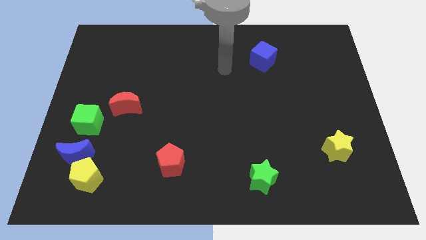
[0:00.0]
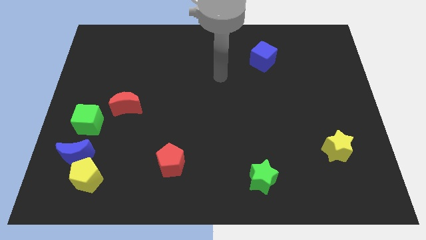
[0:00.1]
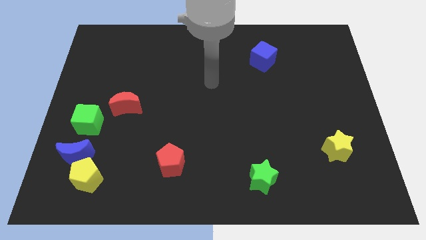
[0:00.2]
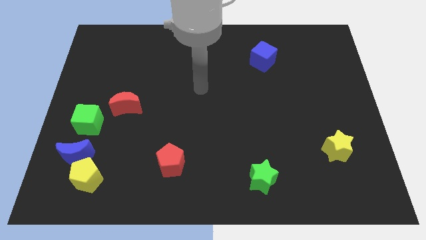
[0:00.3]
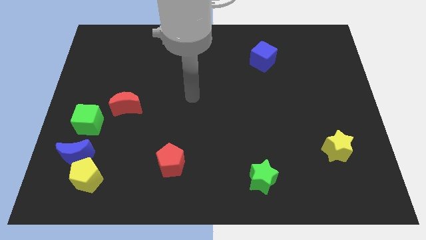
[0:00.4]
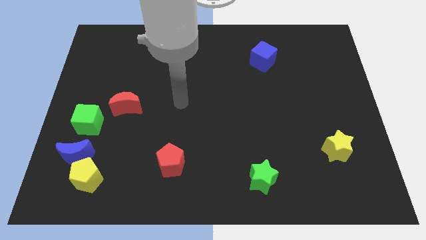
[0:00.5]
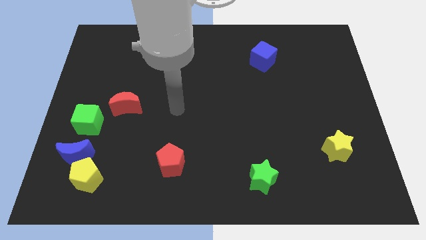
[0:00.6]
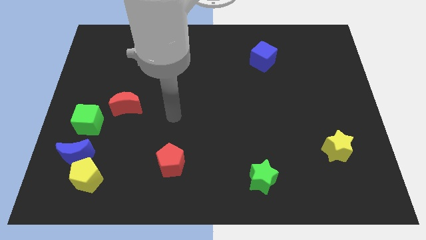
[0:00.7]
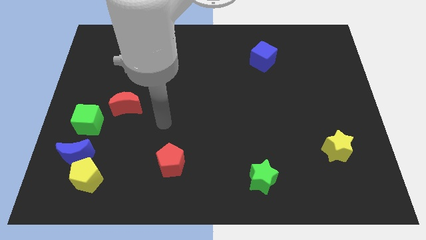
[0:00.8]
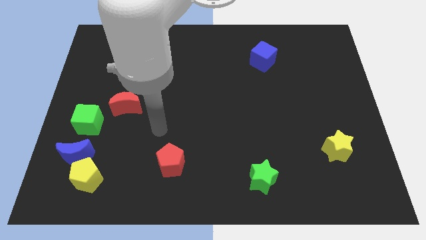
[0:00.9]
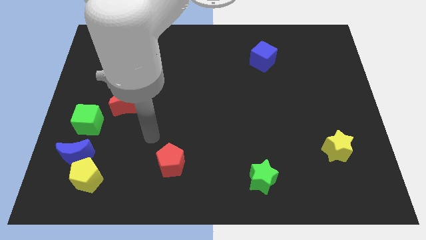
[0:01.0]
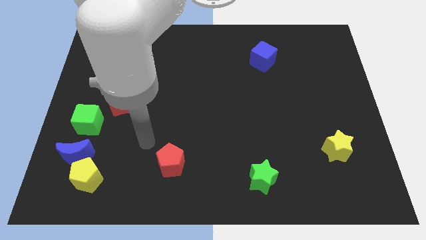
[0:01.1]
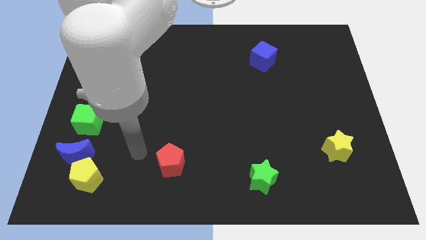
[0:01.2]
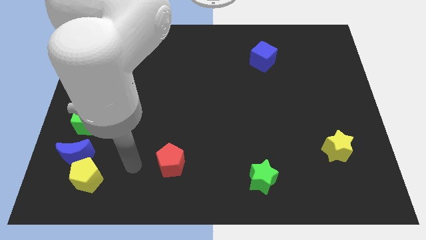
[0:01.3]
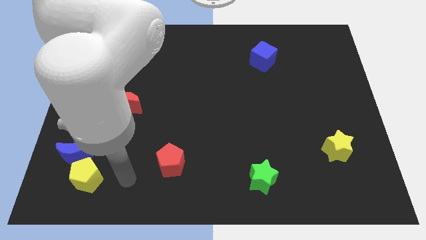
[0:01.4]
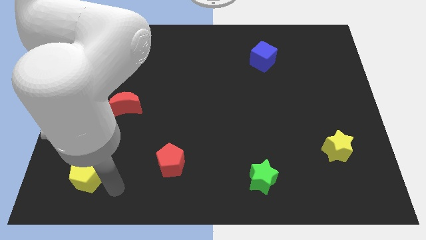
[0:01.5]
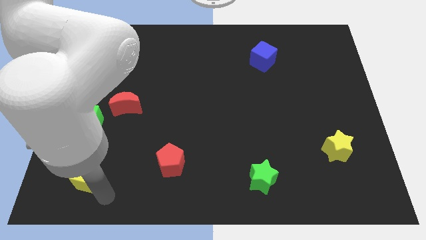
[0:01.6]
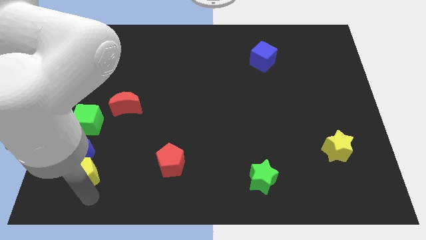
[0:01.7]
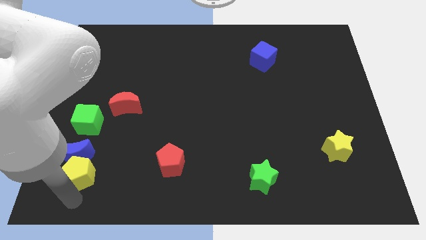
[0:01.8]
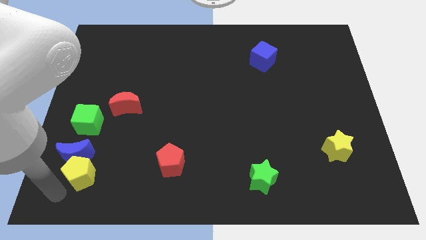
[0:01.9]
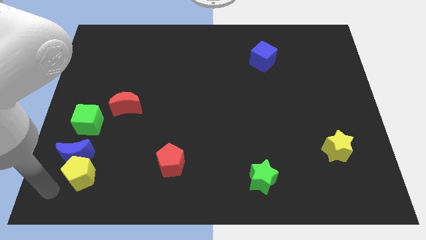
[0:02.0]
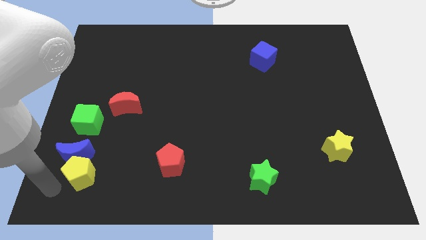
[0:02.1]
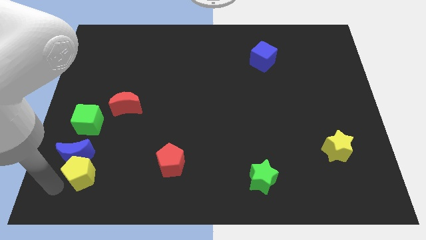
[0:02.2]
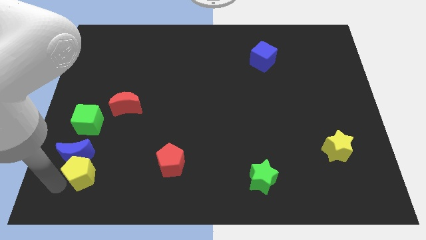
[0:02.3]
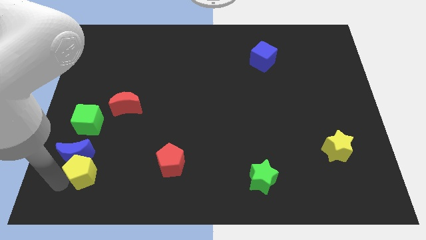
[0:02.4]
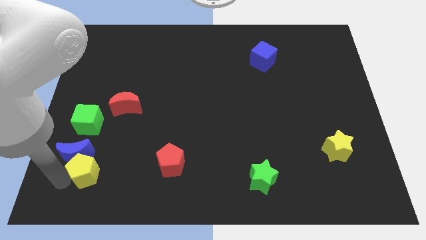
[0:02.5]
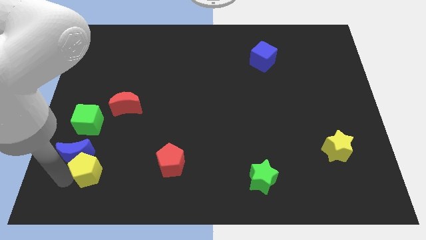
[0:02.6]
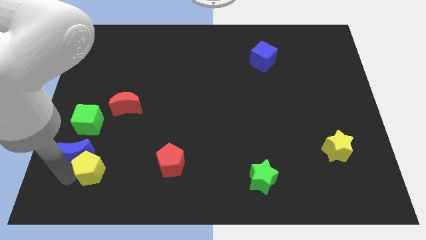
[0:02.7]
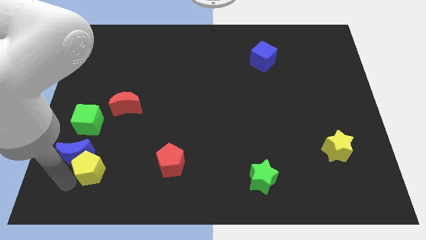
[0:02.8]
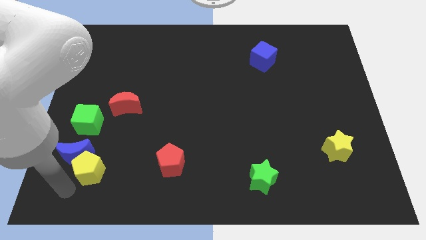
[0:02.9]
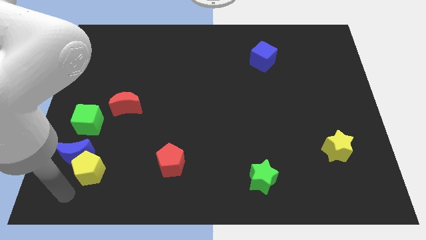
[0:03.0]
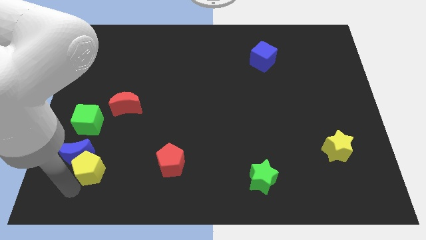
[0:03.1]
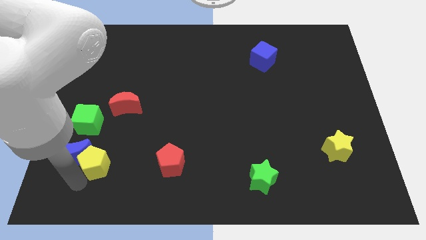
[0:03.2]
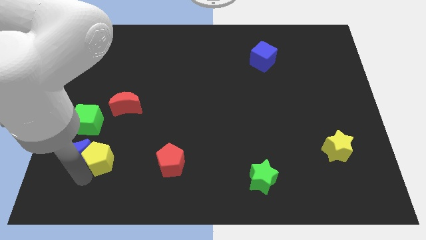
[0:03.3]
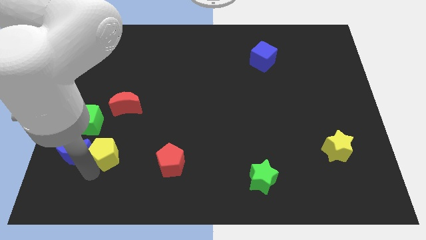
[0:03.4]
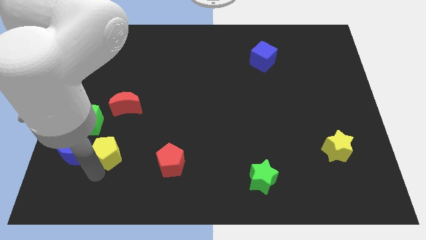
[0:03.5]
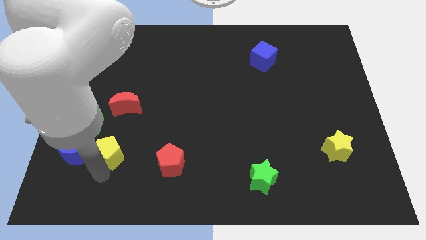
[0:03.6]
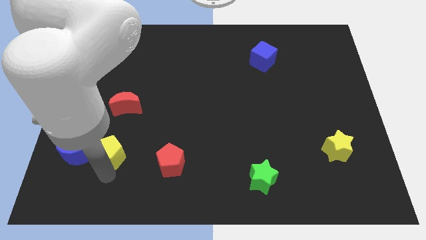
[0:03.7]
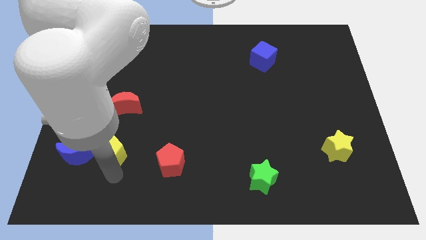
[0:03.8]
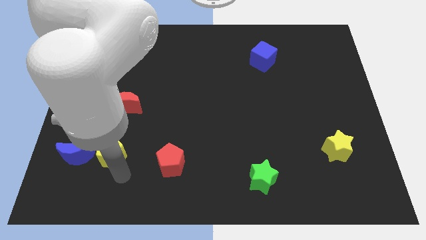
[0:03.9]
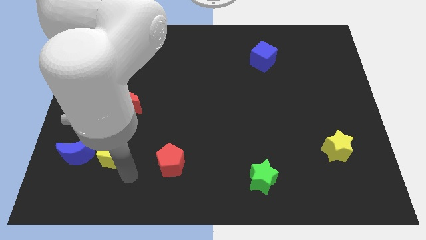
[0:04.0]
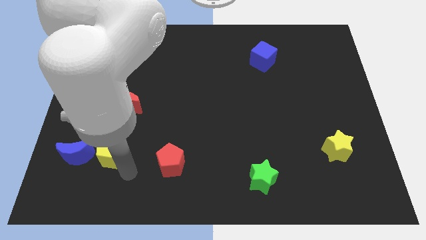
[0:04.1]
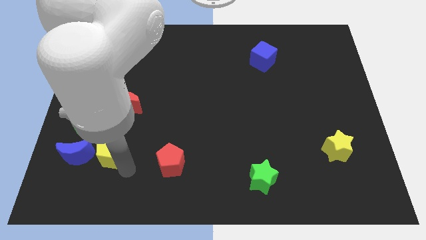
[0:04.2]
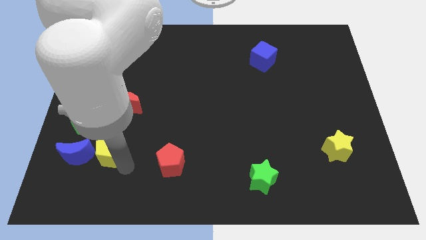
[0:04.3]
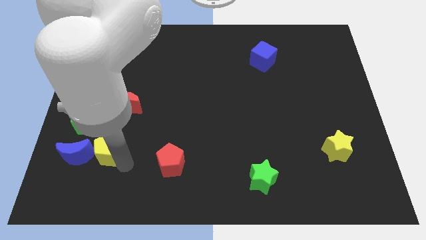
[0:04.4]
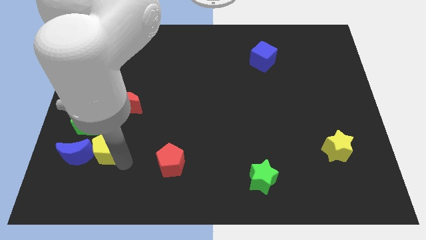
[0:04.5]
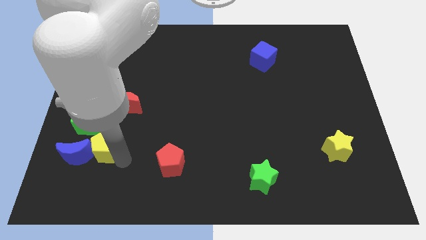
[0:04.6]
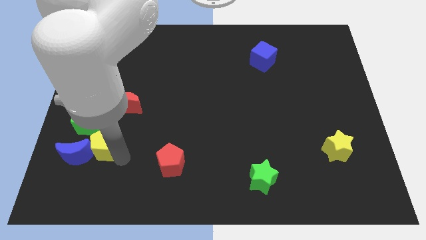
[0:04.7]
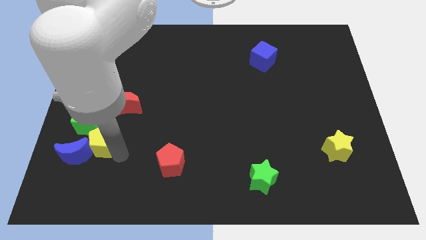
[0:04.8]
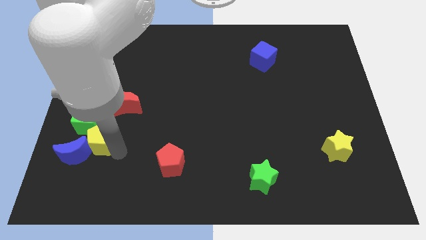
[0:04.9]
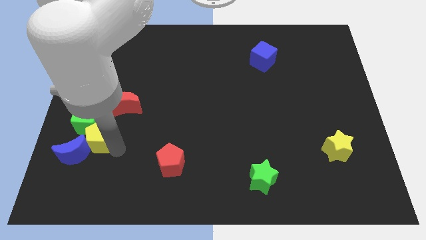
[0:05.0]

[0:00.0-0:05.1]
push the yellow pentagon next to the green cube

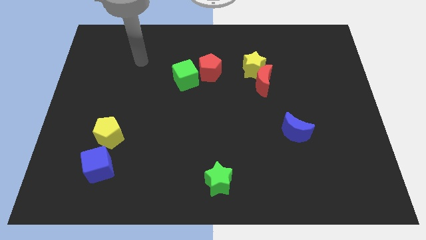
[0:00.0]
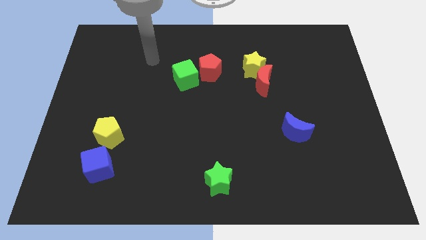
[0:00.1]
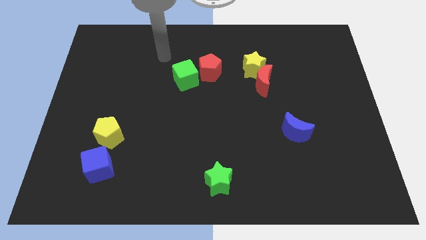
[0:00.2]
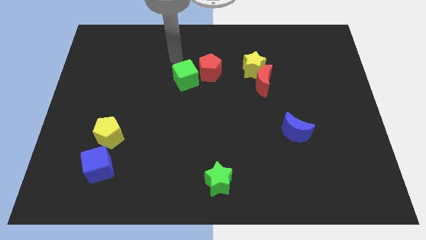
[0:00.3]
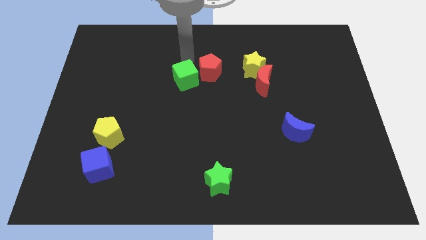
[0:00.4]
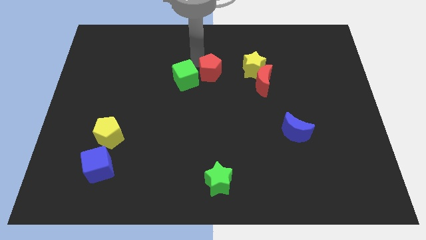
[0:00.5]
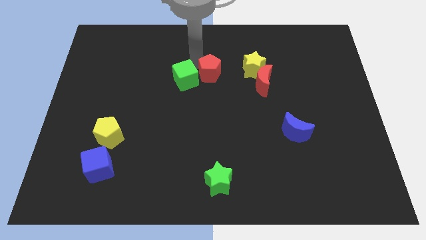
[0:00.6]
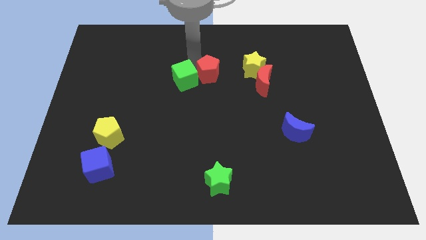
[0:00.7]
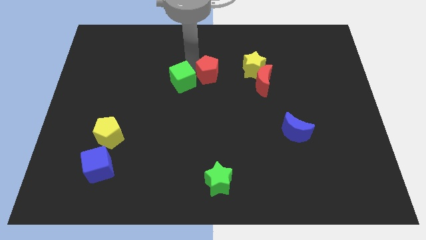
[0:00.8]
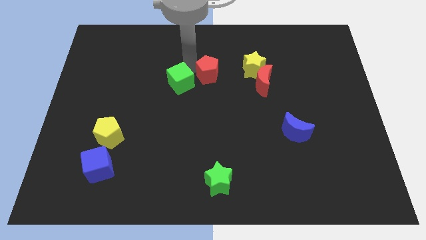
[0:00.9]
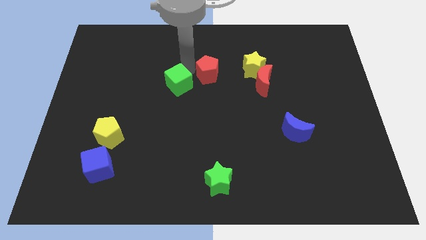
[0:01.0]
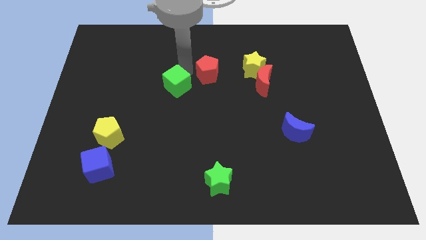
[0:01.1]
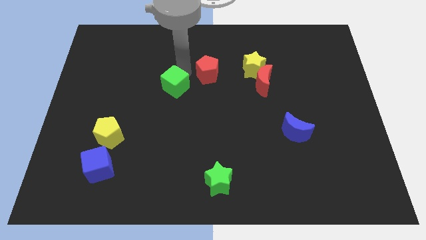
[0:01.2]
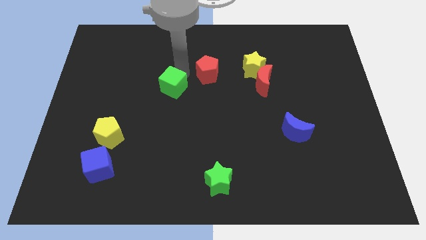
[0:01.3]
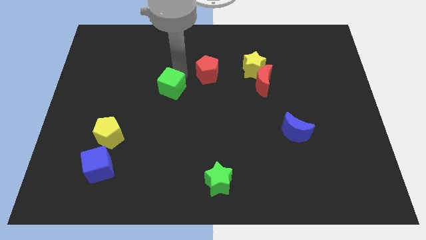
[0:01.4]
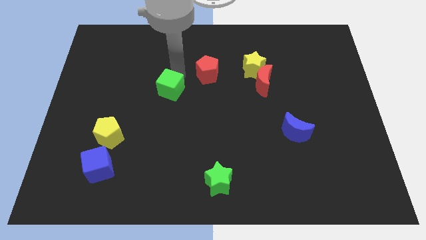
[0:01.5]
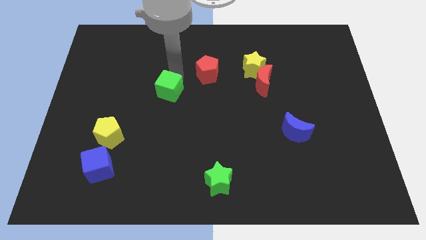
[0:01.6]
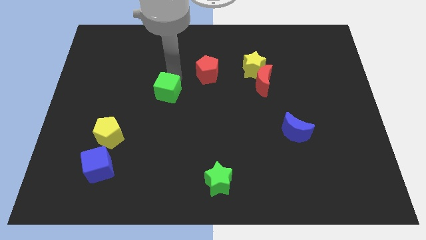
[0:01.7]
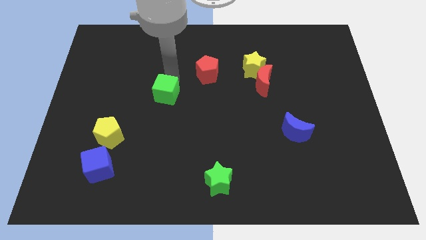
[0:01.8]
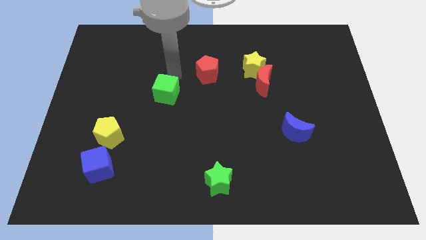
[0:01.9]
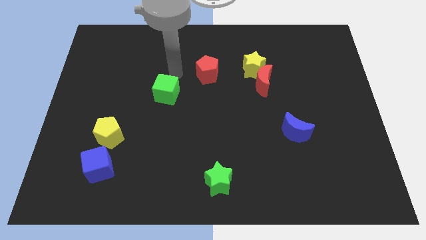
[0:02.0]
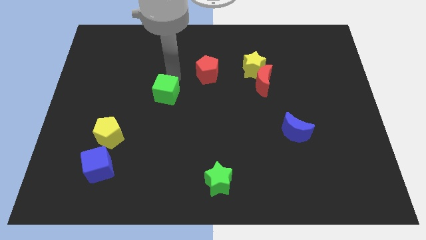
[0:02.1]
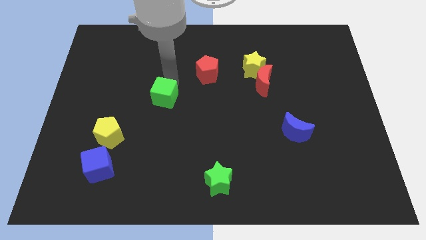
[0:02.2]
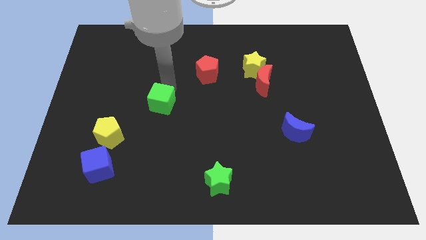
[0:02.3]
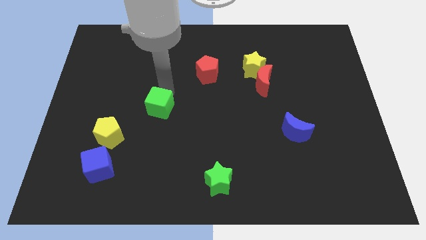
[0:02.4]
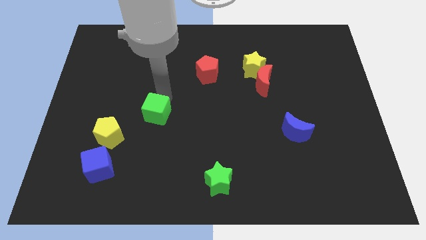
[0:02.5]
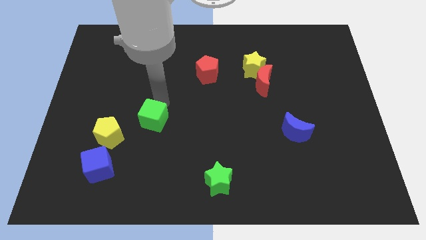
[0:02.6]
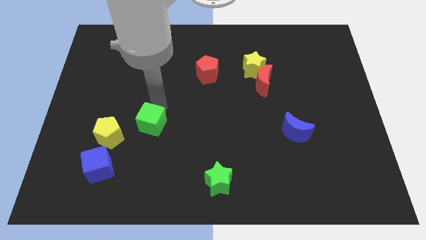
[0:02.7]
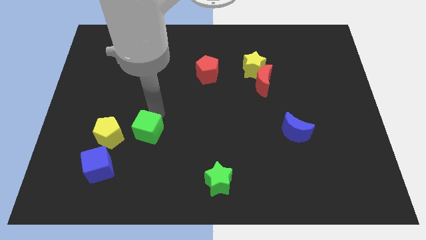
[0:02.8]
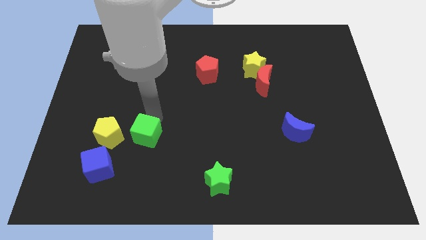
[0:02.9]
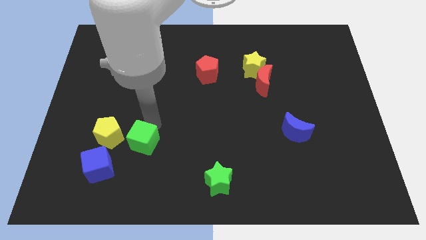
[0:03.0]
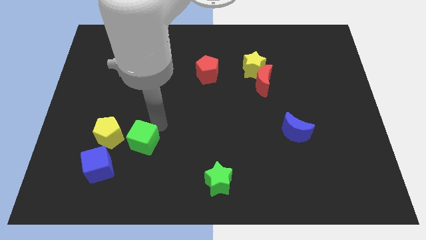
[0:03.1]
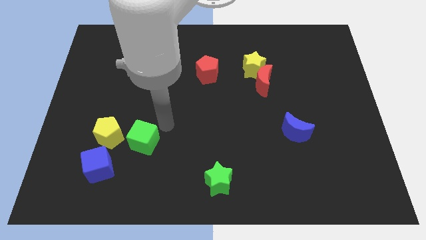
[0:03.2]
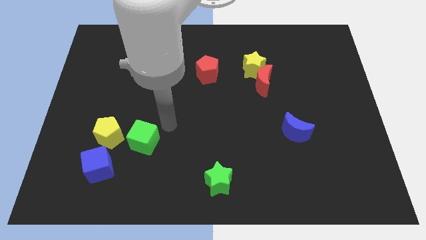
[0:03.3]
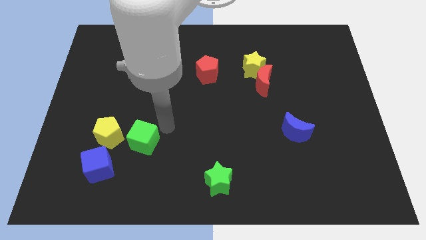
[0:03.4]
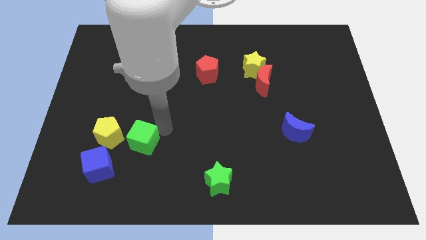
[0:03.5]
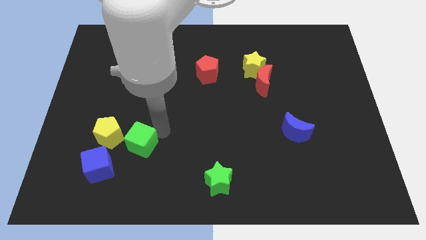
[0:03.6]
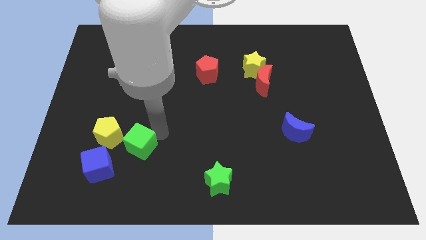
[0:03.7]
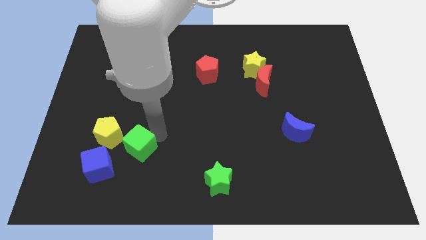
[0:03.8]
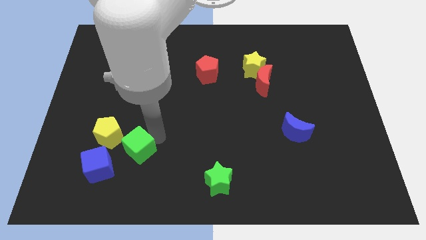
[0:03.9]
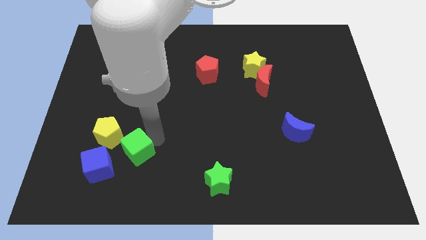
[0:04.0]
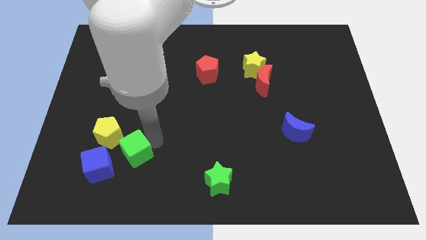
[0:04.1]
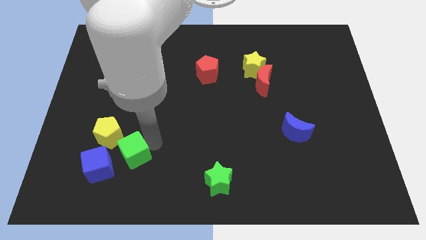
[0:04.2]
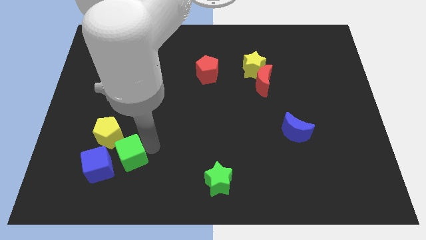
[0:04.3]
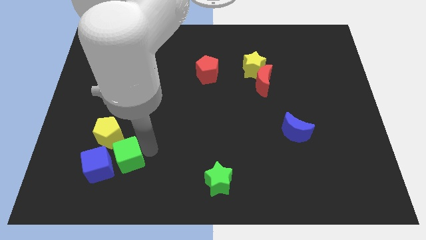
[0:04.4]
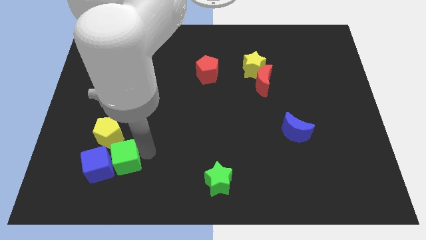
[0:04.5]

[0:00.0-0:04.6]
push the green cube to the blue cube
